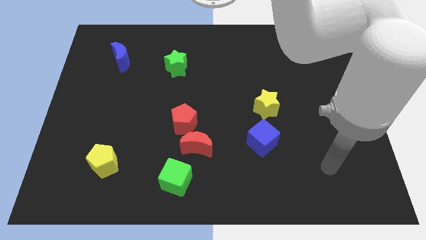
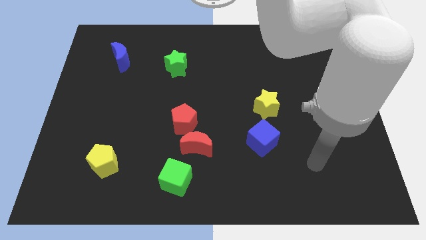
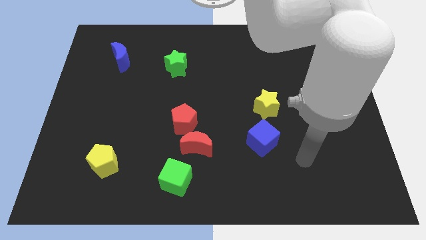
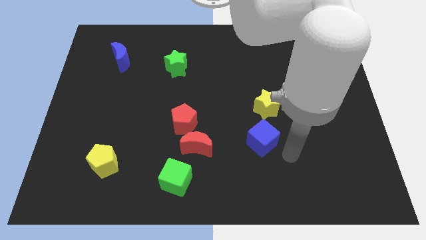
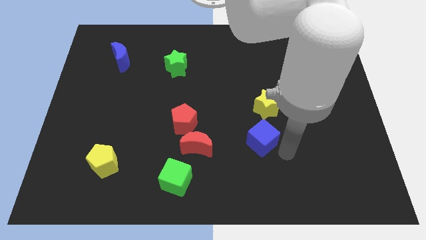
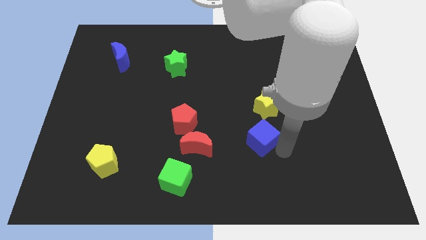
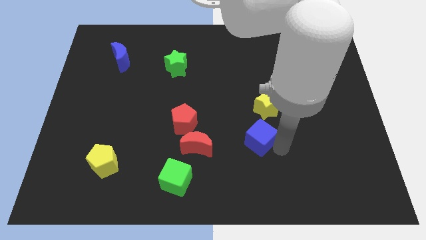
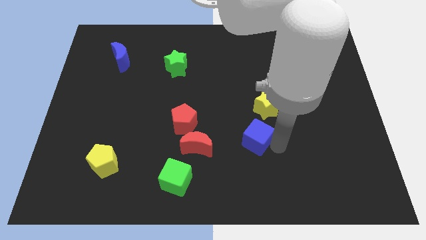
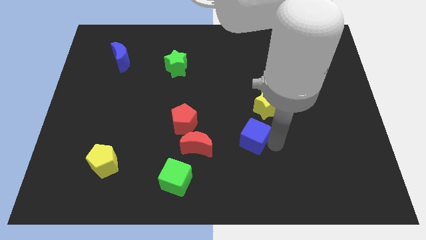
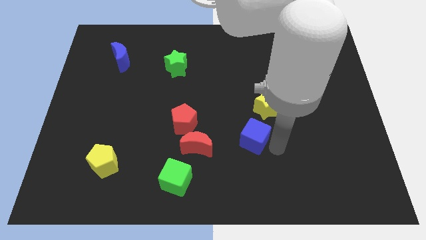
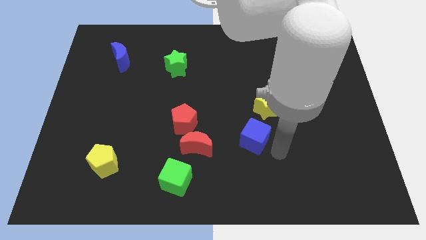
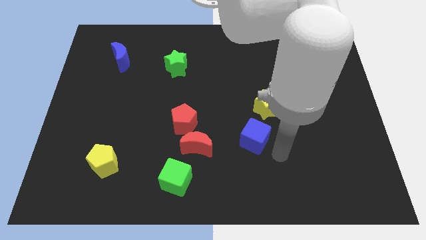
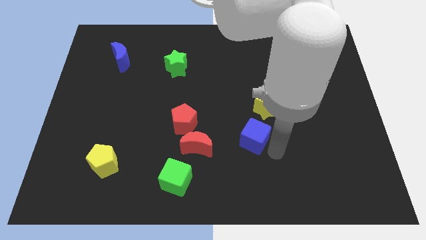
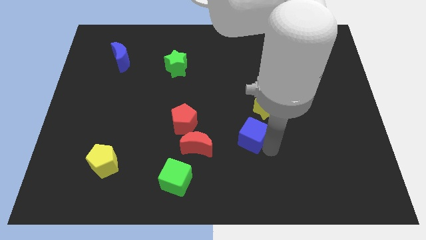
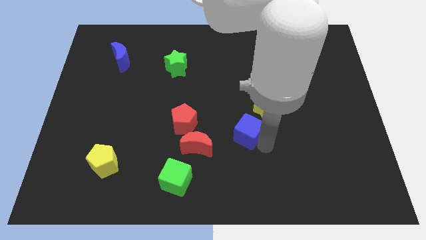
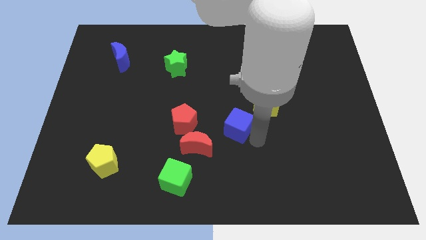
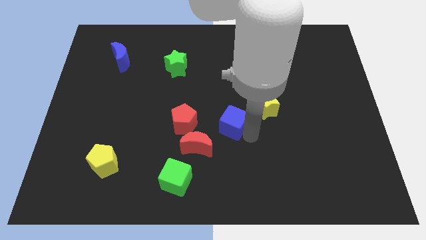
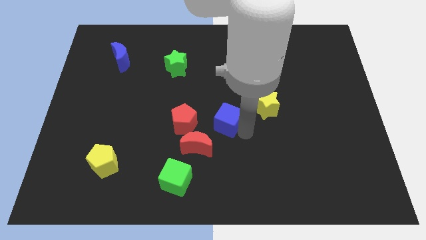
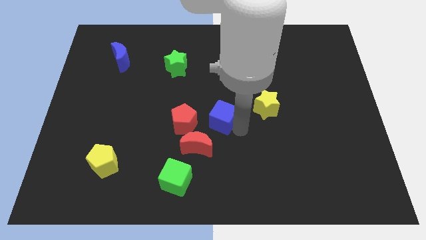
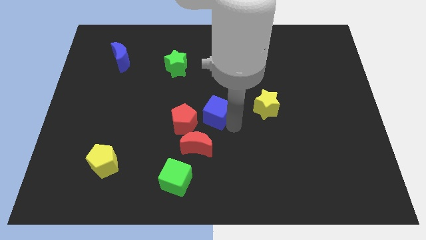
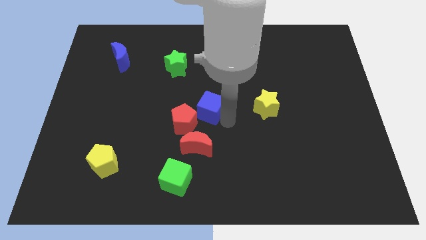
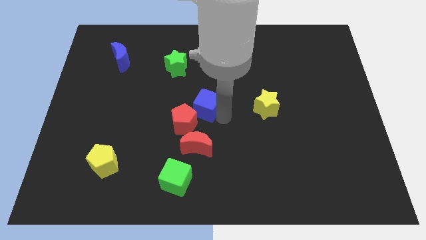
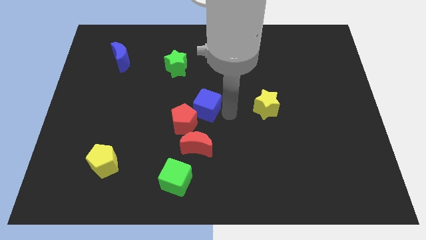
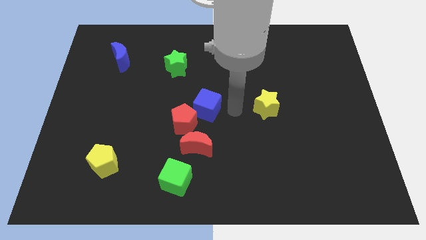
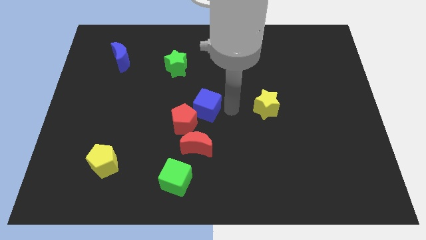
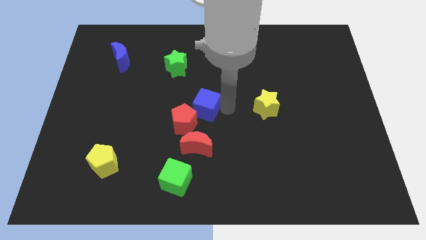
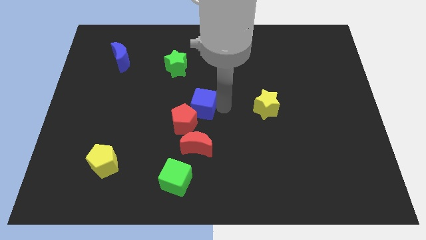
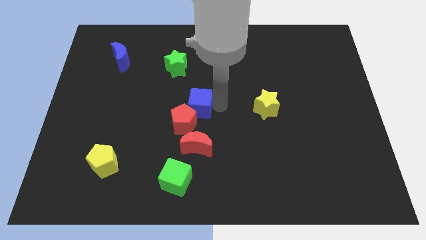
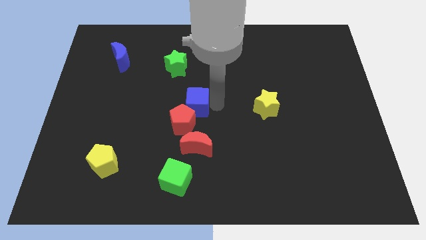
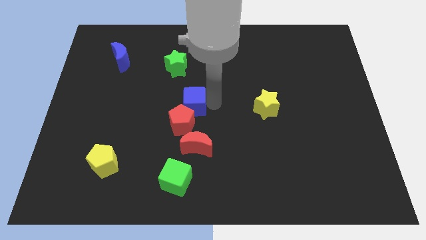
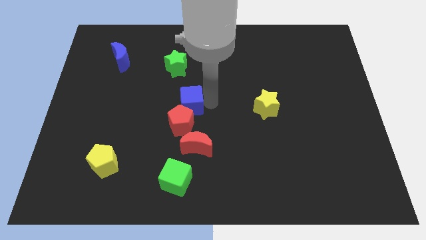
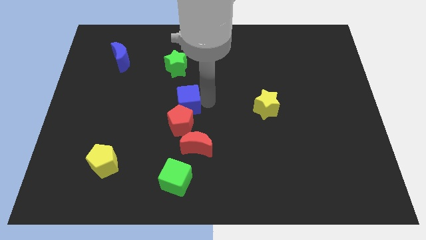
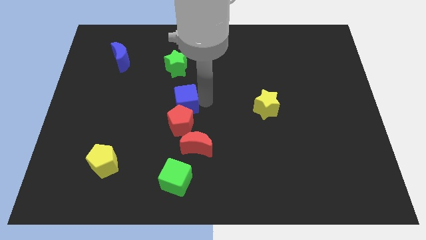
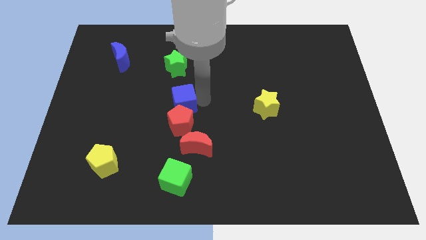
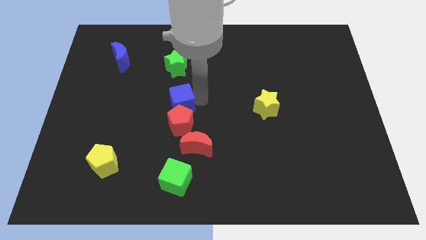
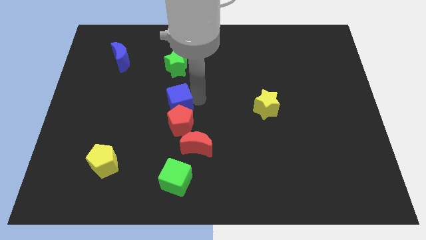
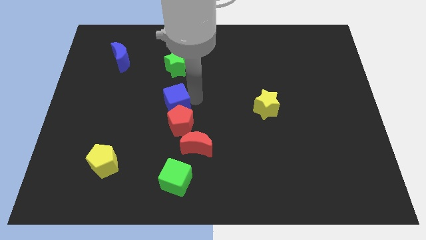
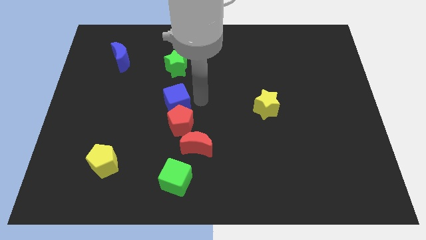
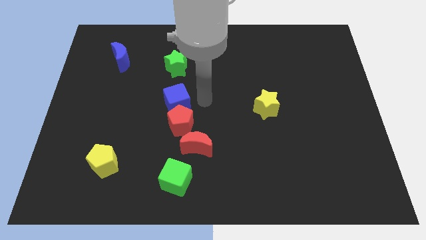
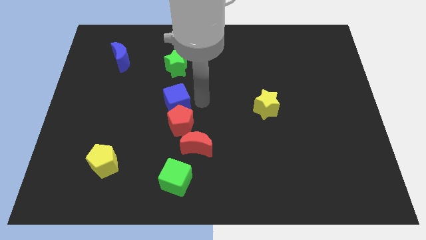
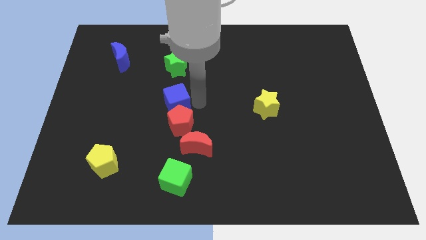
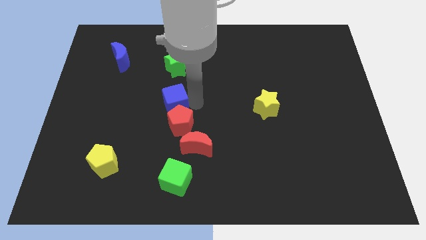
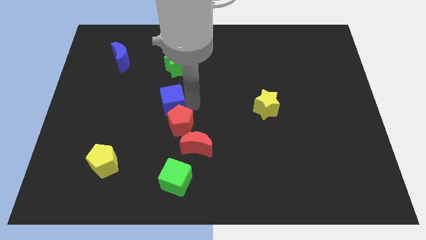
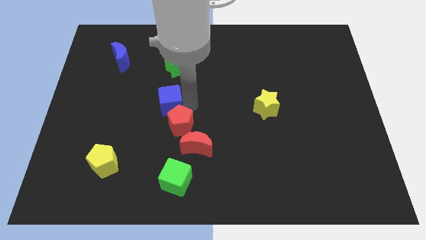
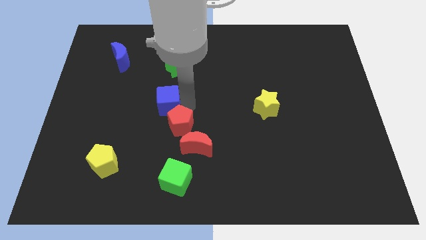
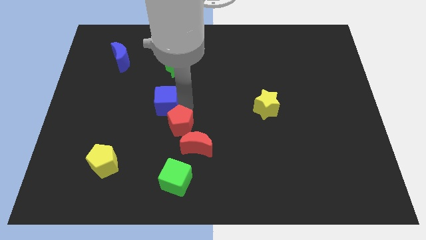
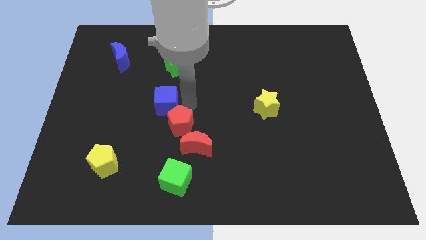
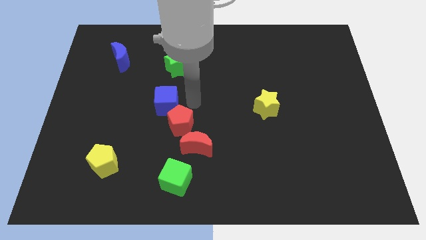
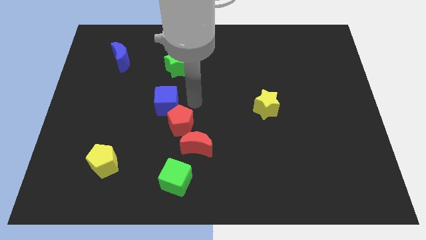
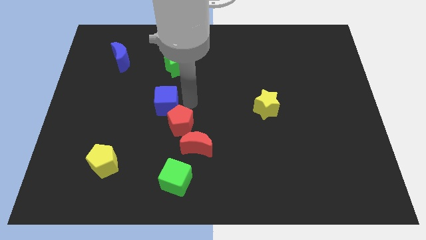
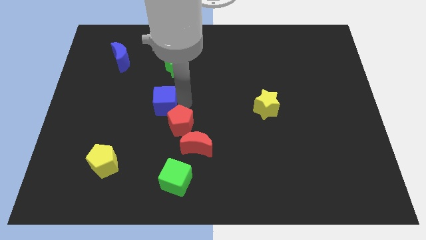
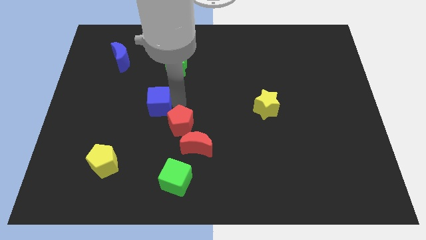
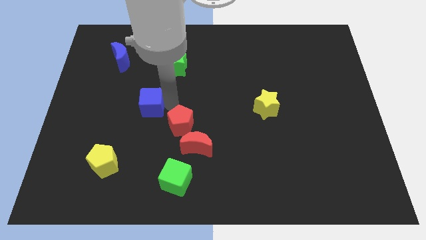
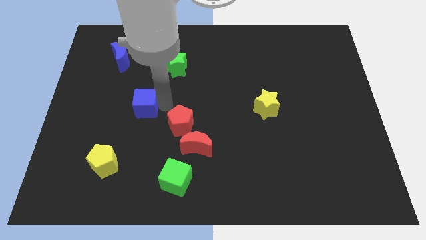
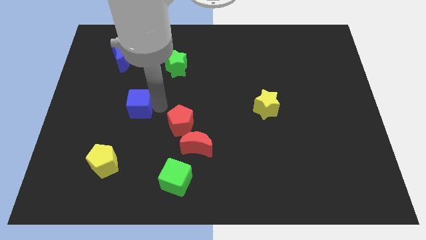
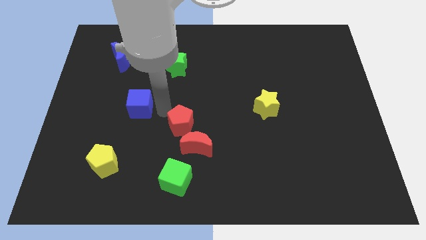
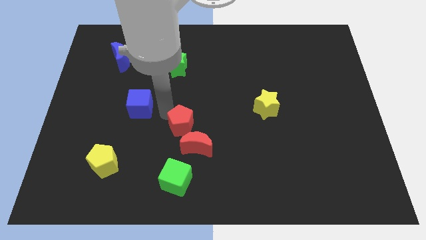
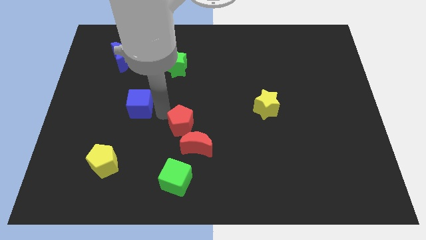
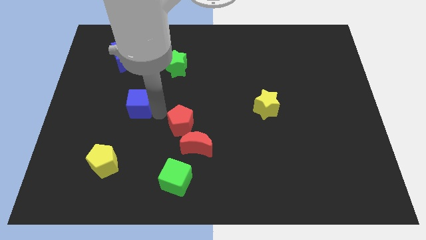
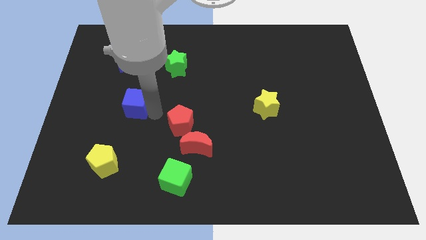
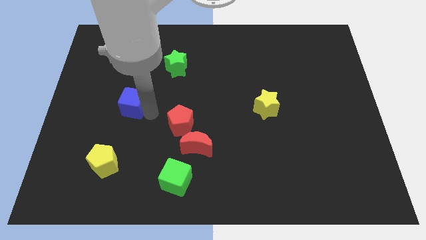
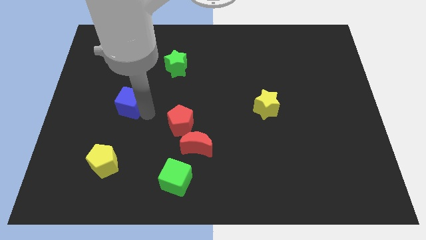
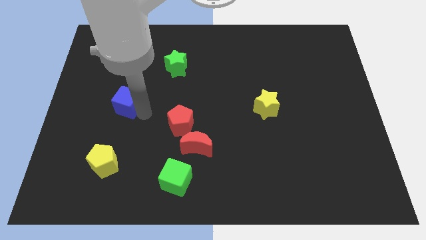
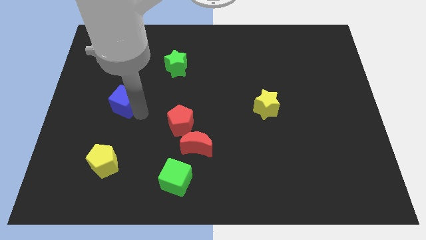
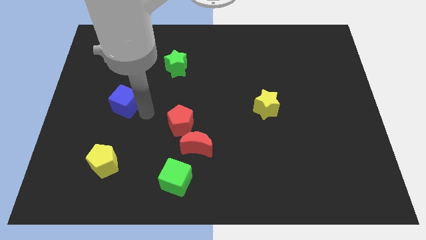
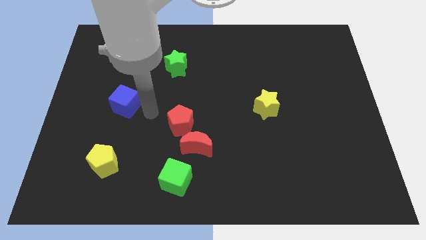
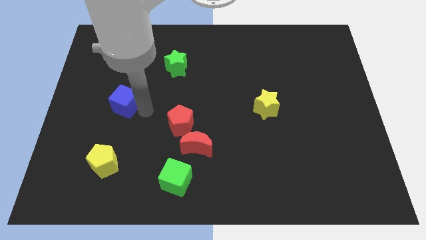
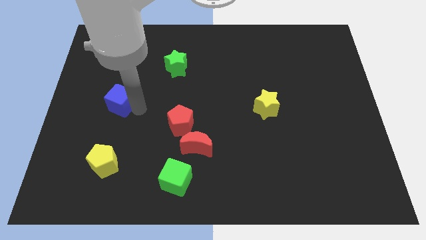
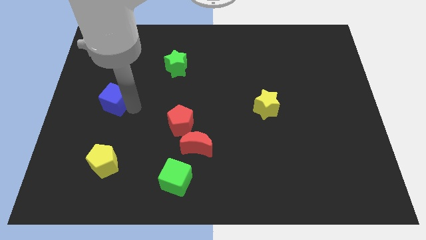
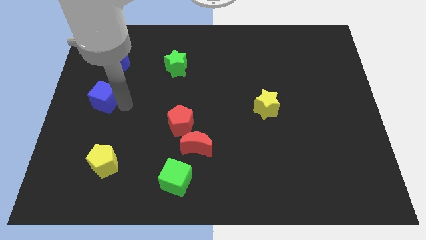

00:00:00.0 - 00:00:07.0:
slide the blue cube to the left side of the board
